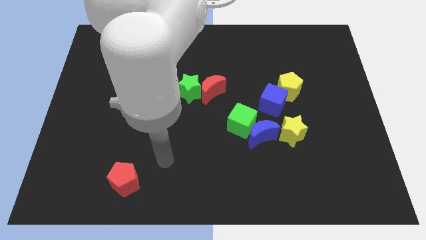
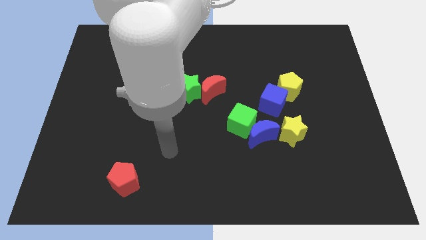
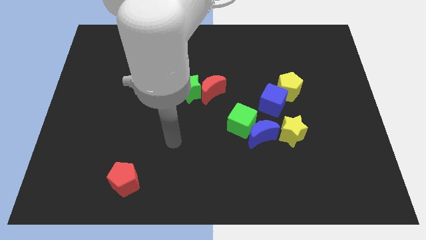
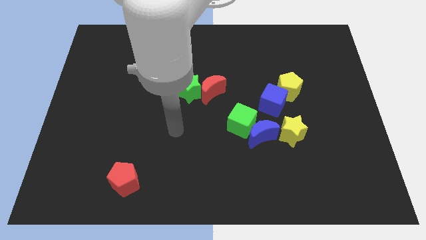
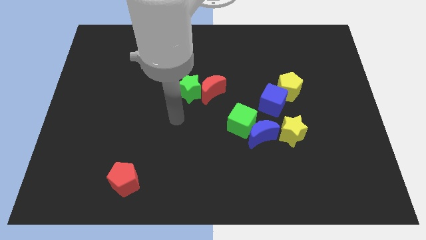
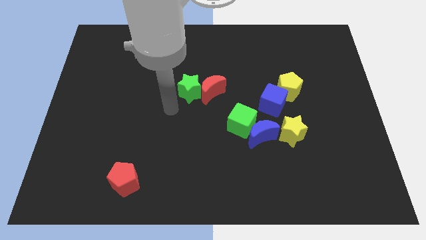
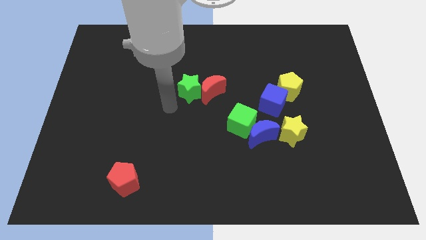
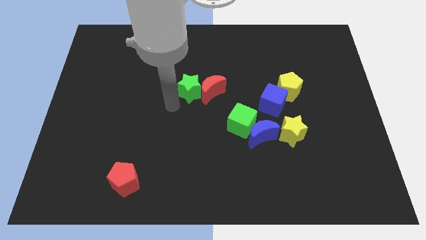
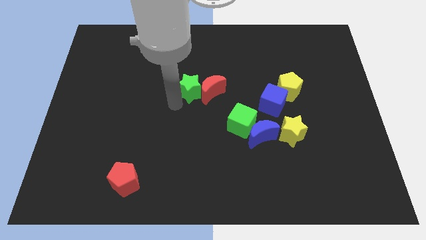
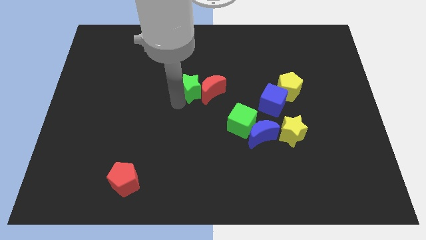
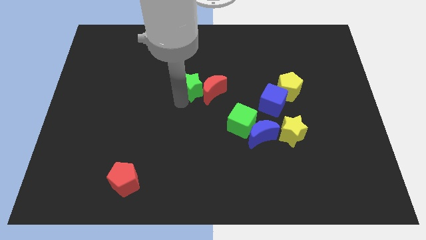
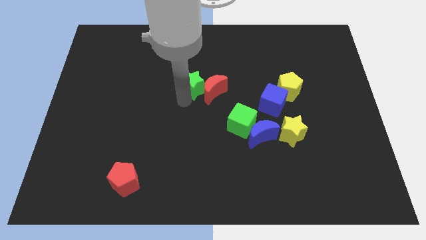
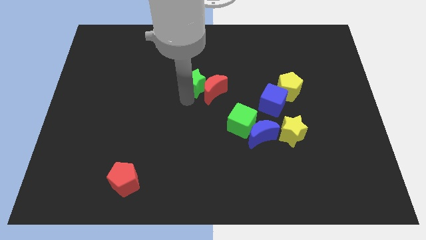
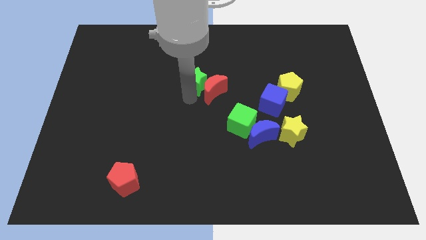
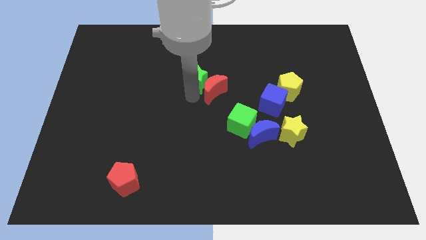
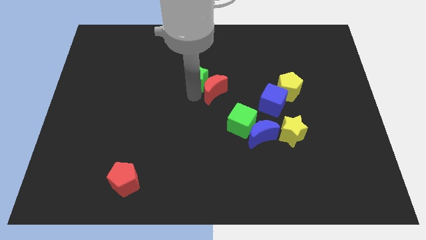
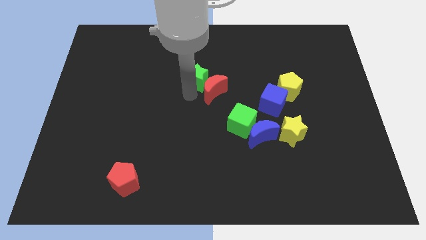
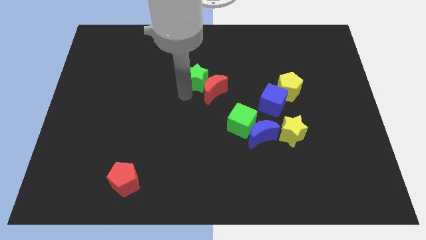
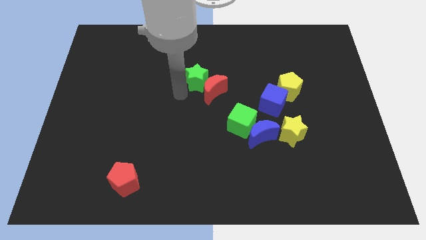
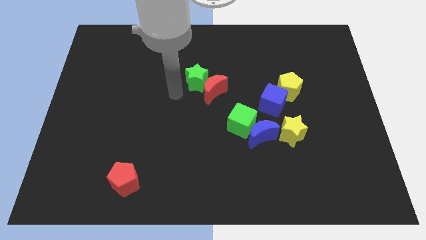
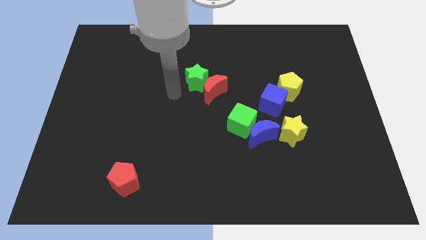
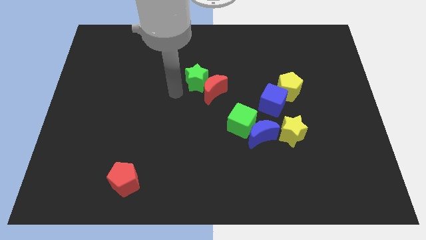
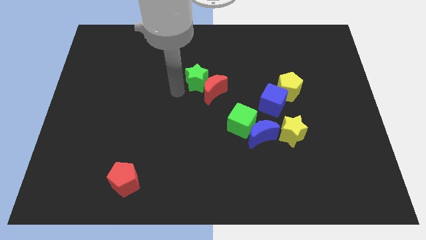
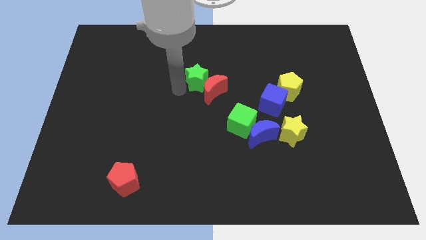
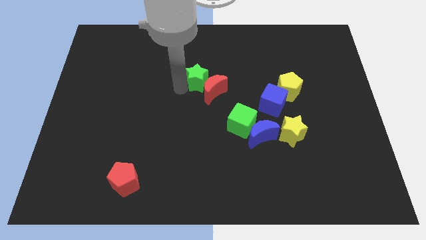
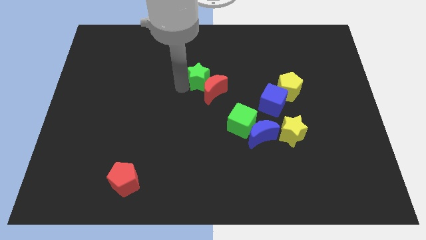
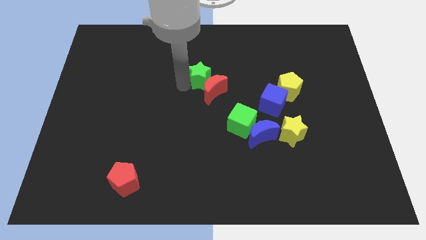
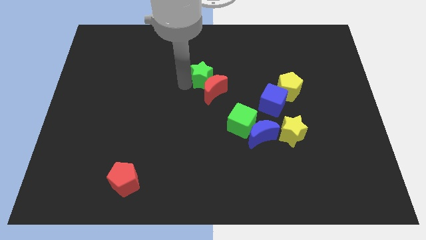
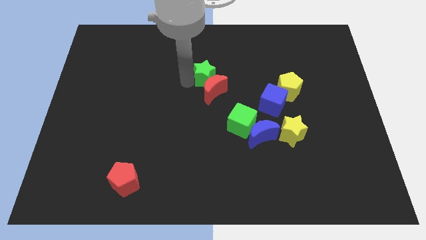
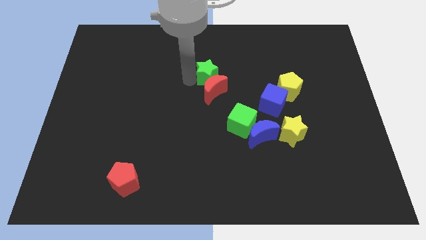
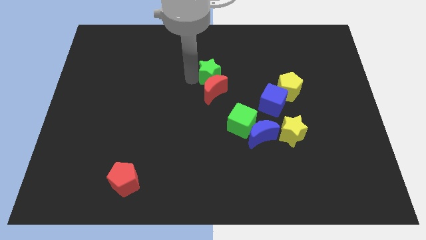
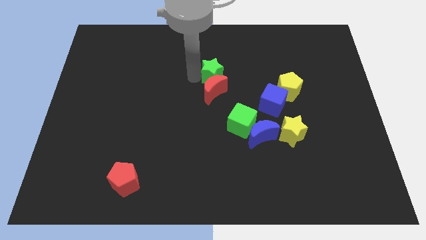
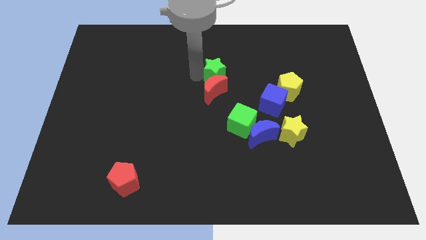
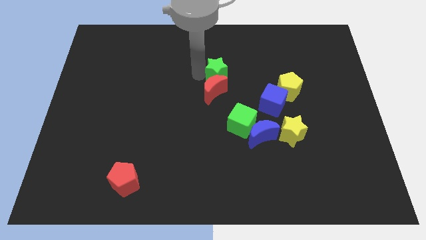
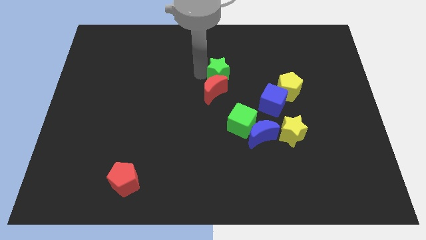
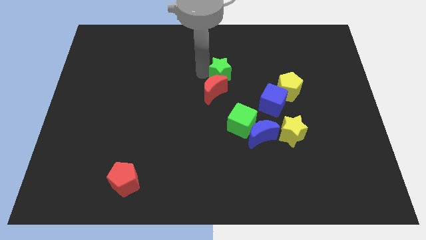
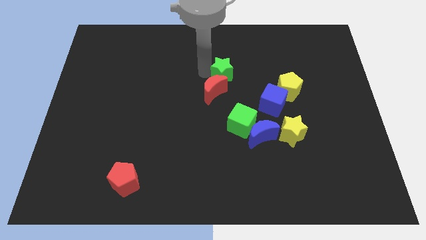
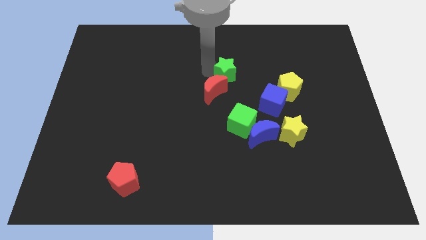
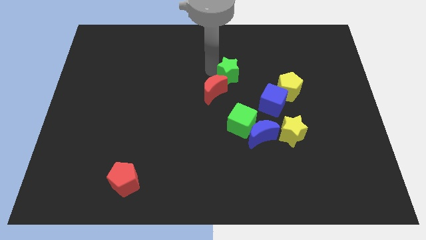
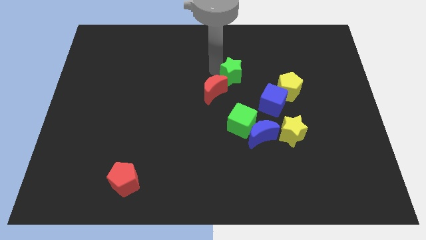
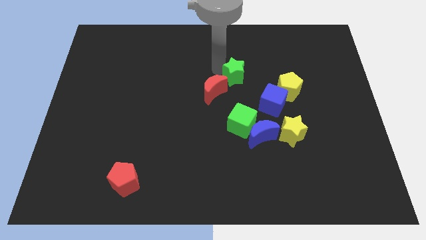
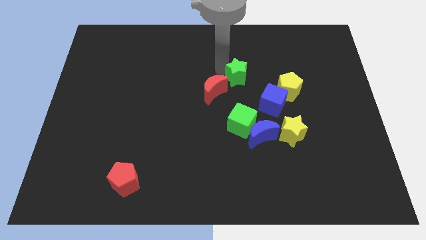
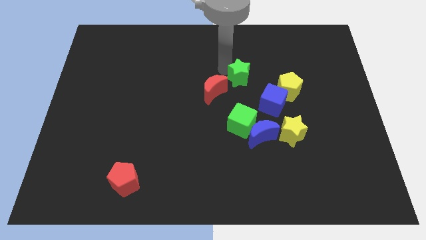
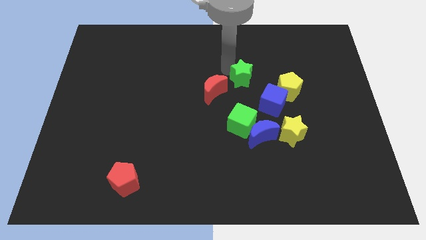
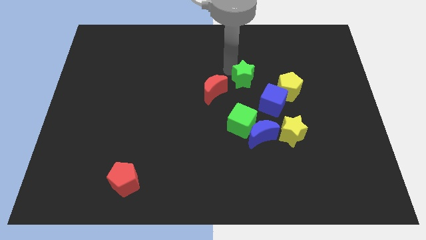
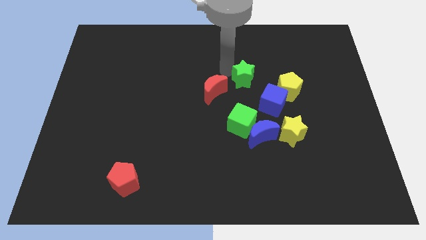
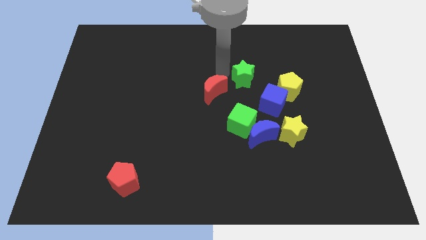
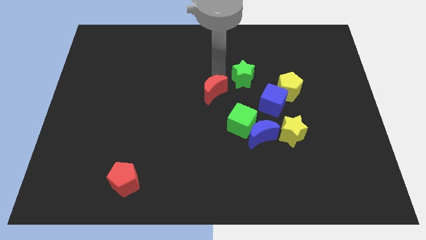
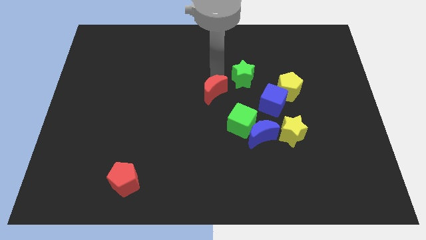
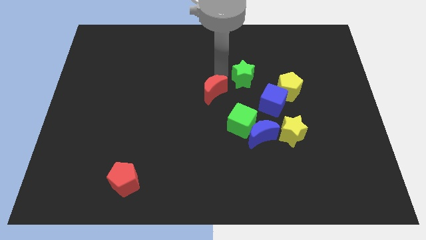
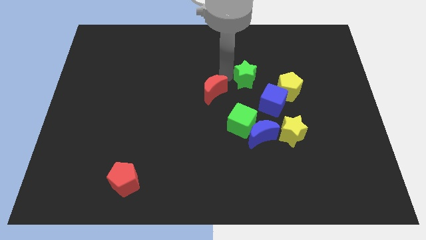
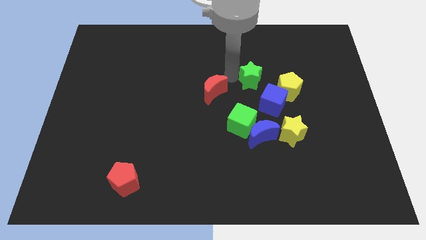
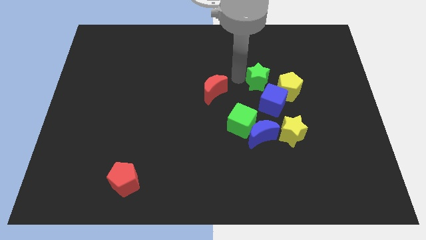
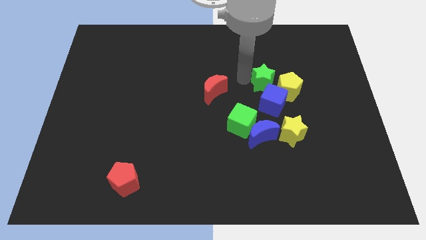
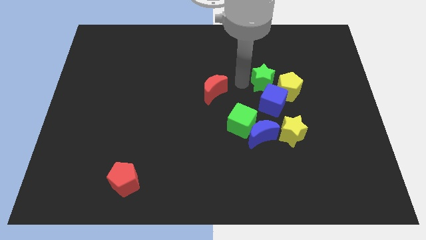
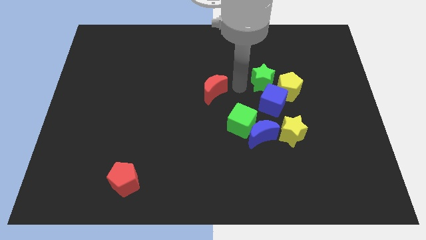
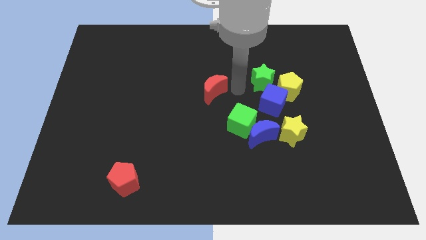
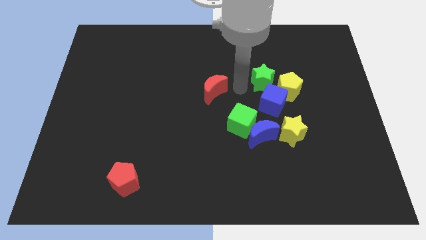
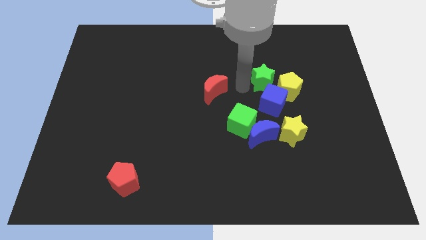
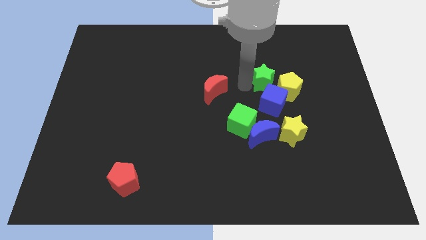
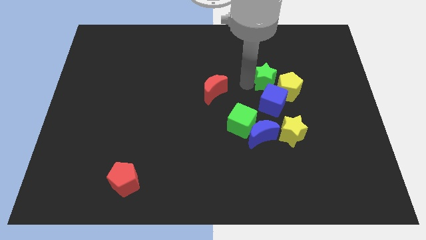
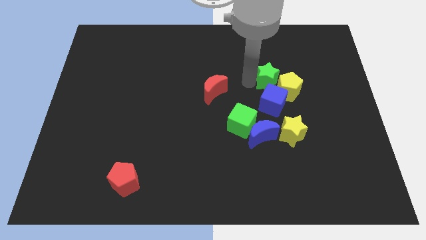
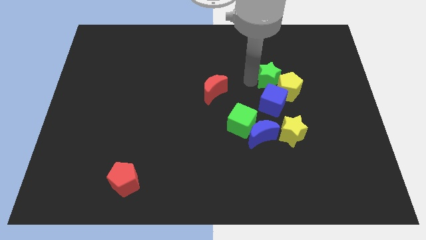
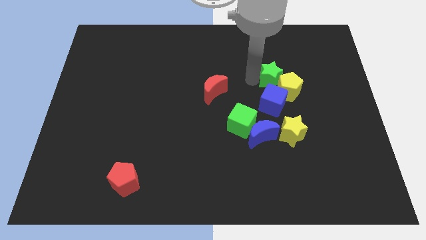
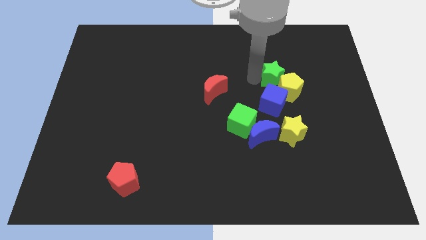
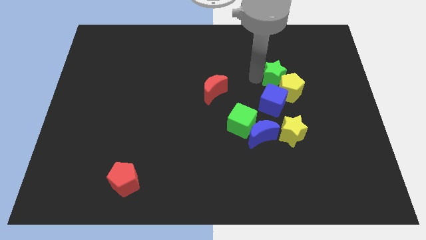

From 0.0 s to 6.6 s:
slide the green star to the right

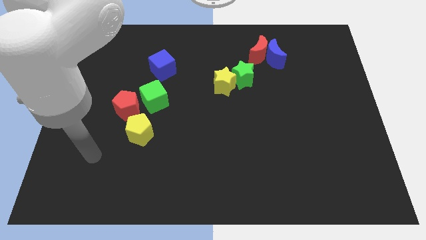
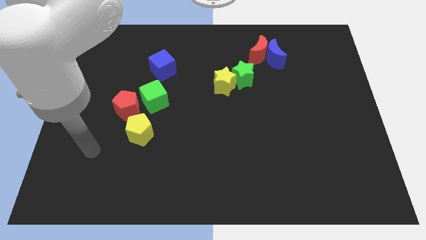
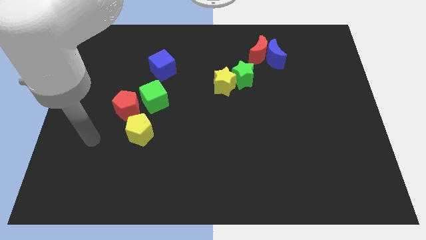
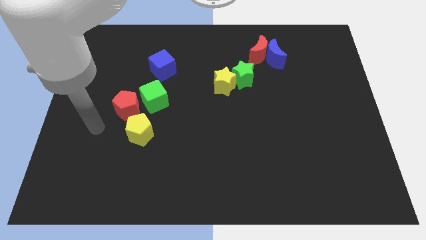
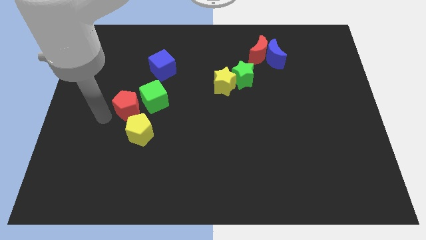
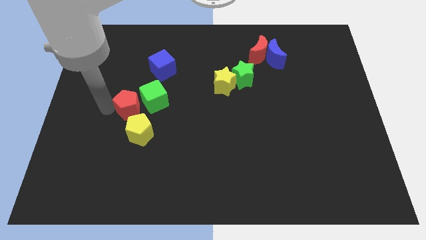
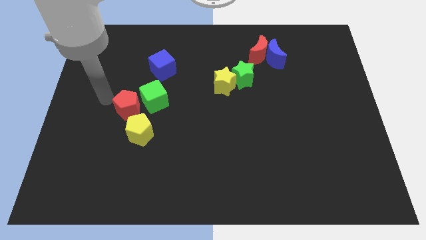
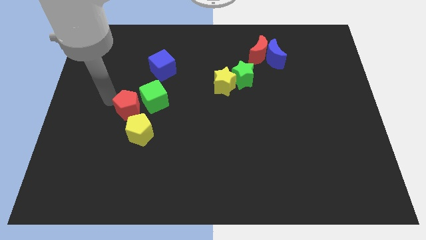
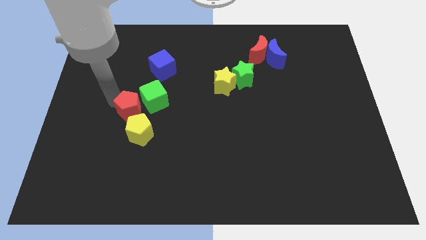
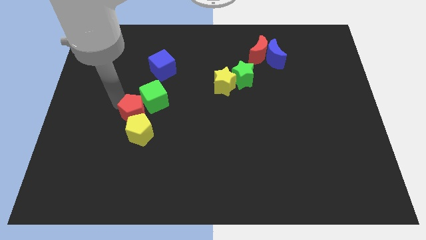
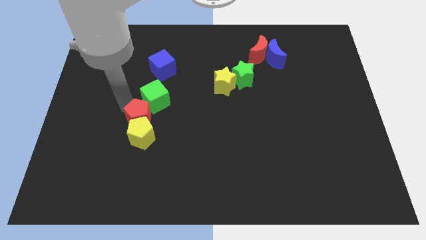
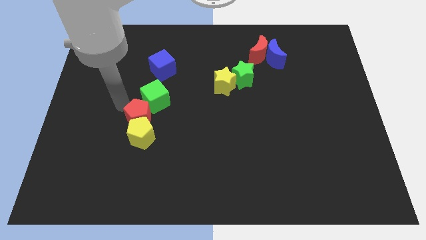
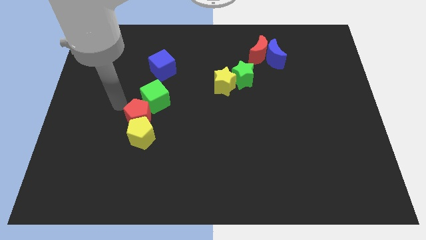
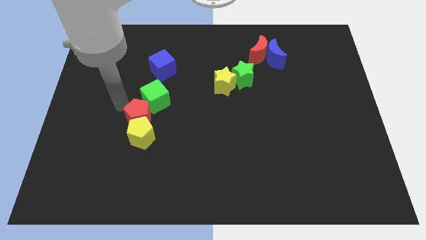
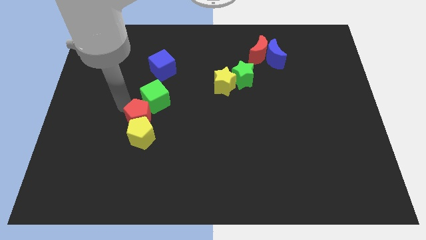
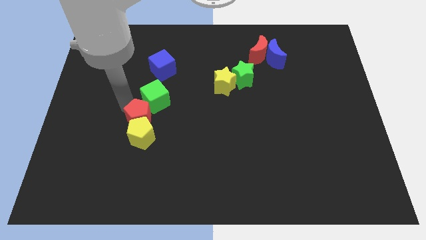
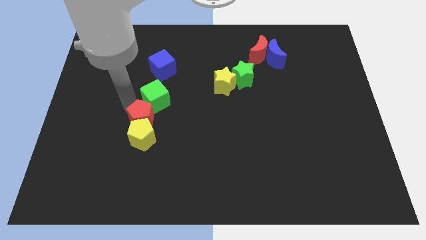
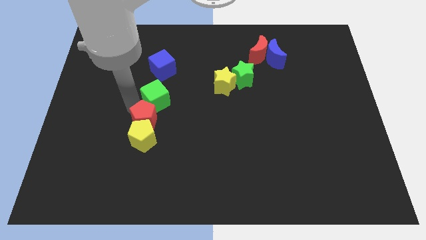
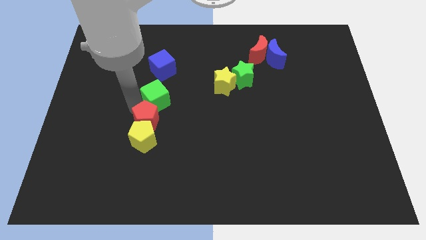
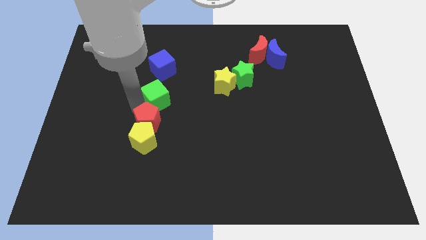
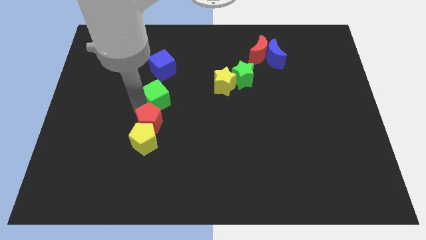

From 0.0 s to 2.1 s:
move the red pentagon down and right diagonally slightly
